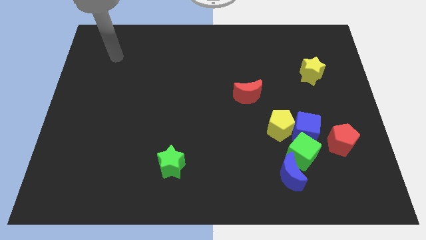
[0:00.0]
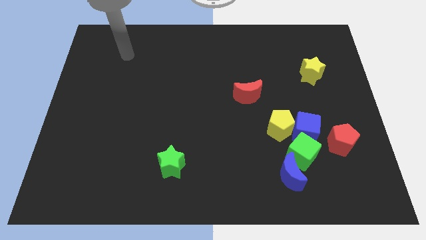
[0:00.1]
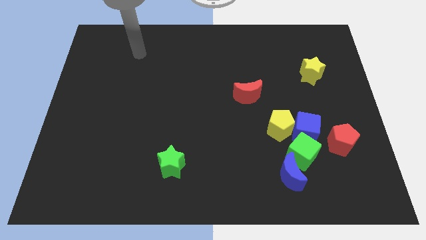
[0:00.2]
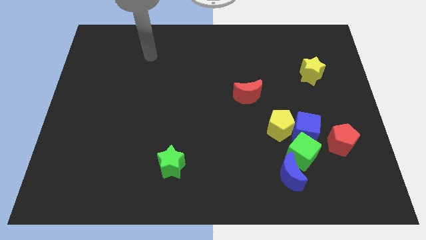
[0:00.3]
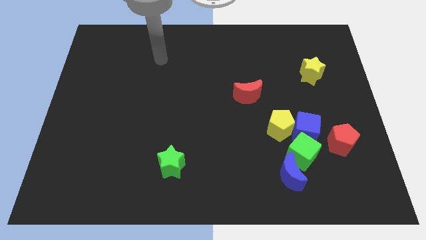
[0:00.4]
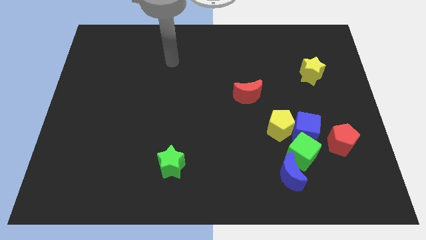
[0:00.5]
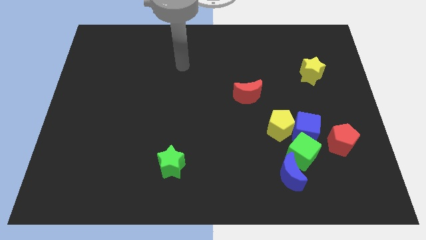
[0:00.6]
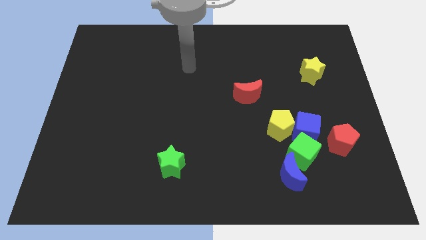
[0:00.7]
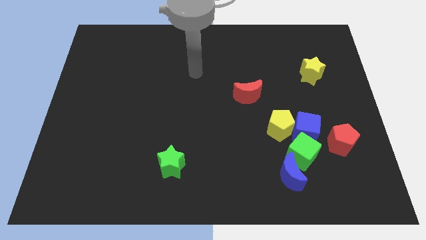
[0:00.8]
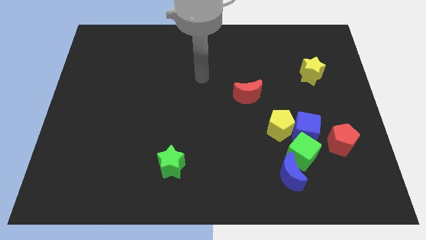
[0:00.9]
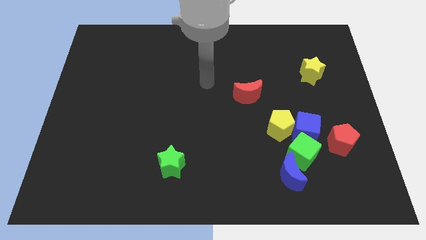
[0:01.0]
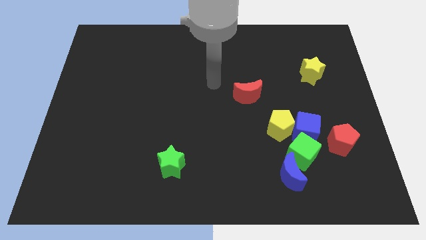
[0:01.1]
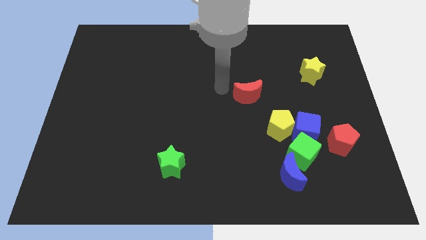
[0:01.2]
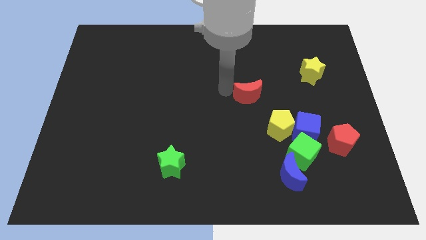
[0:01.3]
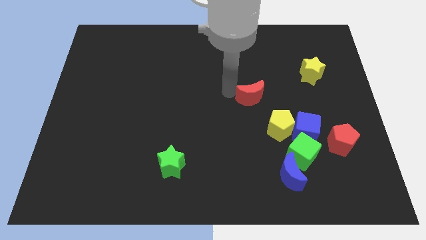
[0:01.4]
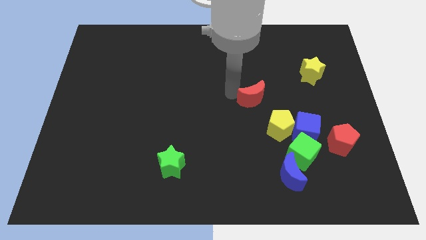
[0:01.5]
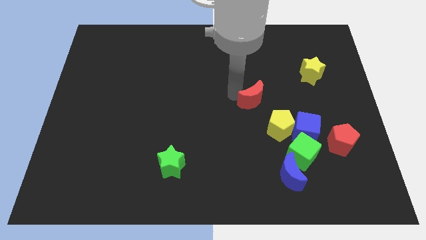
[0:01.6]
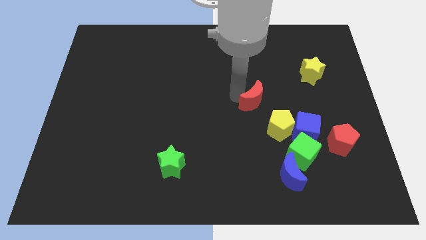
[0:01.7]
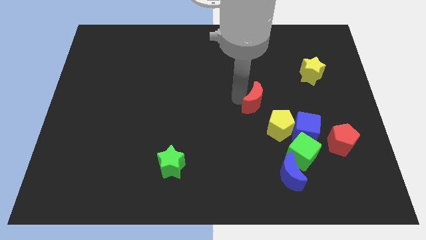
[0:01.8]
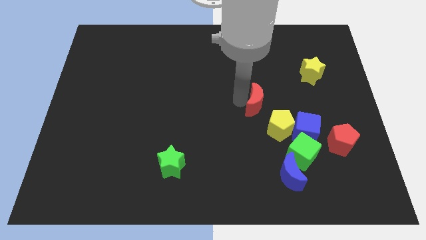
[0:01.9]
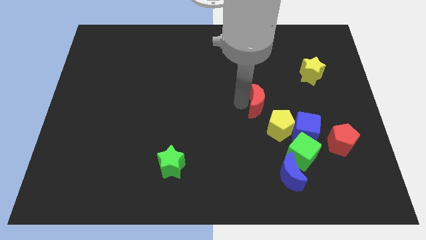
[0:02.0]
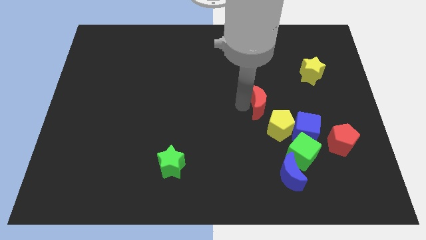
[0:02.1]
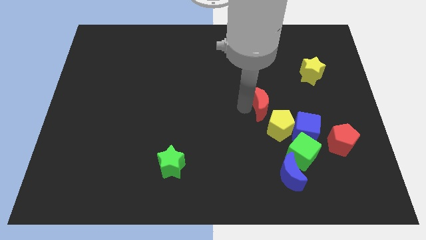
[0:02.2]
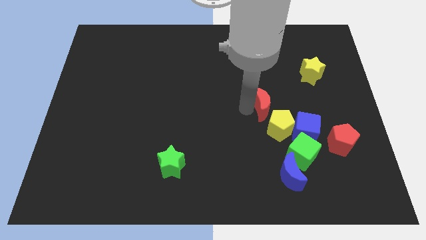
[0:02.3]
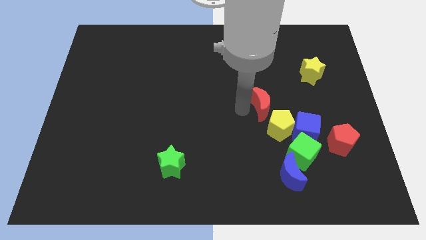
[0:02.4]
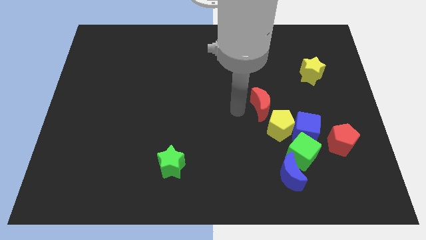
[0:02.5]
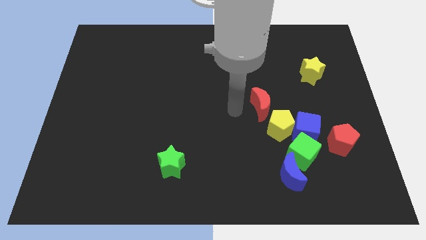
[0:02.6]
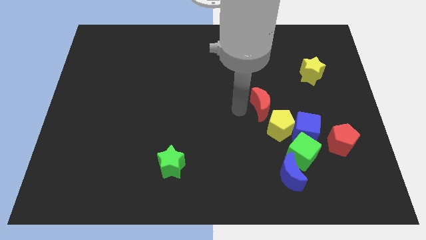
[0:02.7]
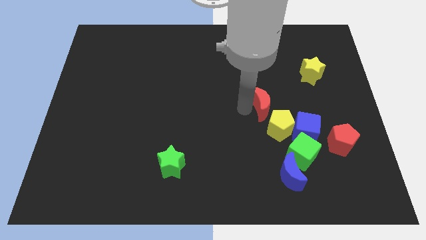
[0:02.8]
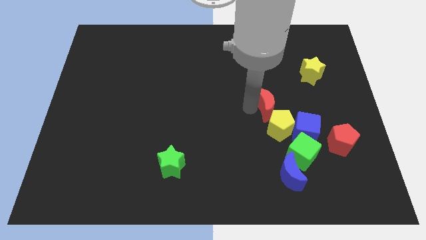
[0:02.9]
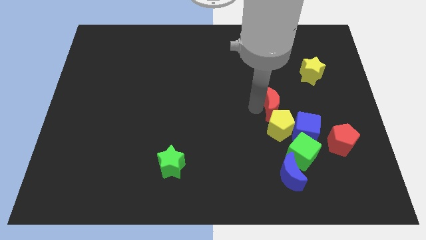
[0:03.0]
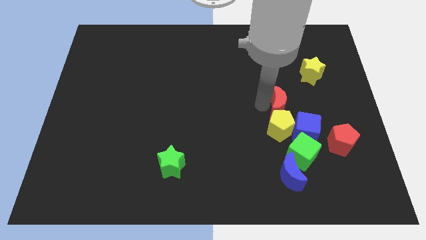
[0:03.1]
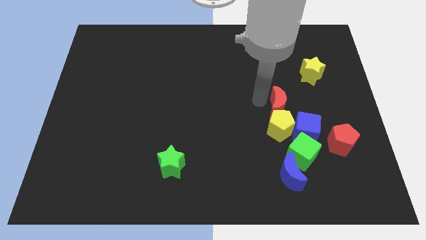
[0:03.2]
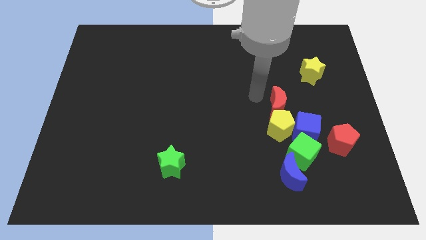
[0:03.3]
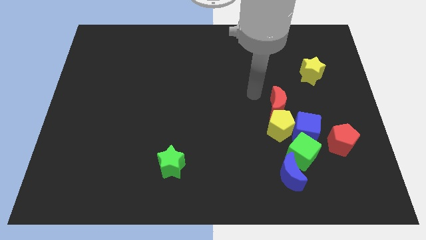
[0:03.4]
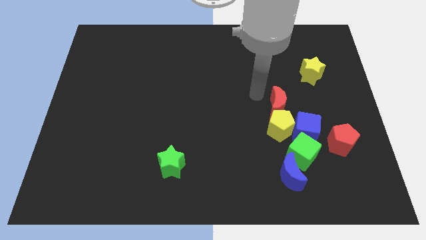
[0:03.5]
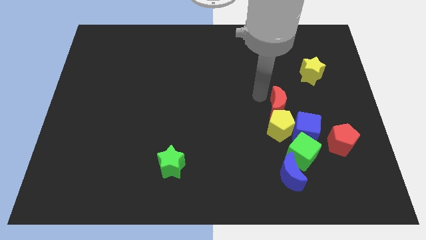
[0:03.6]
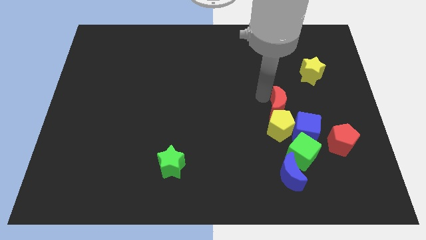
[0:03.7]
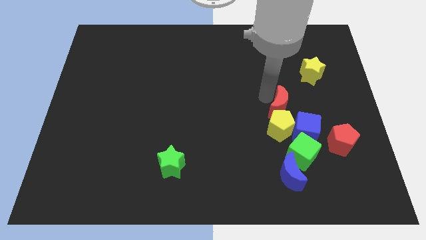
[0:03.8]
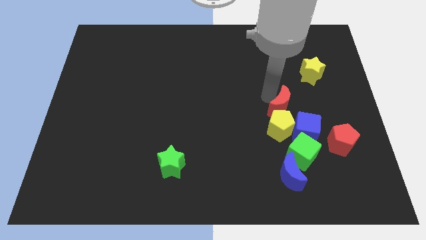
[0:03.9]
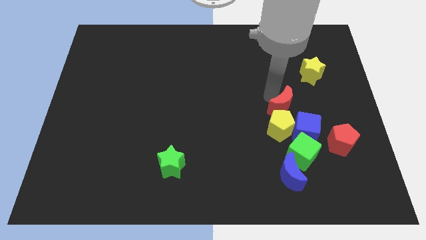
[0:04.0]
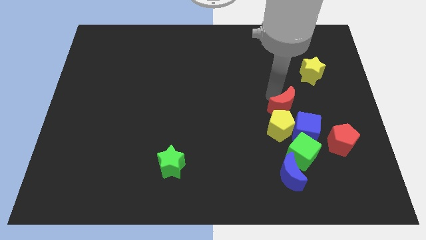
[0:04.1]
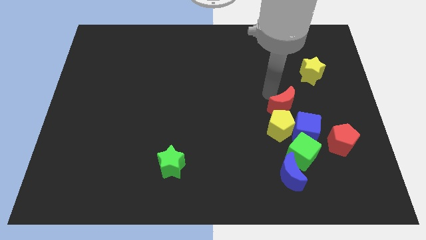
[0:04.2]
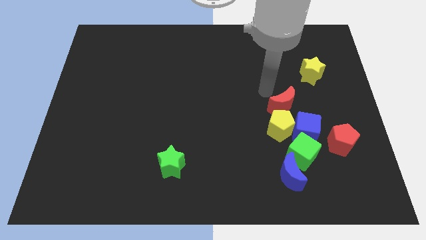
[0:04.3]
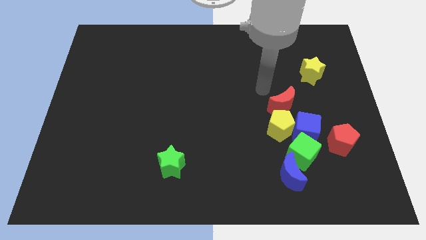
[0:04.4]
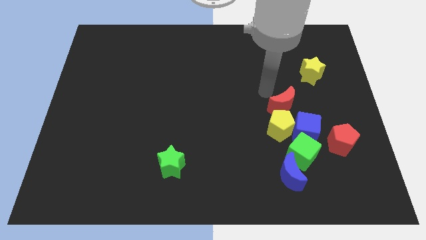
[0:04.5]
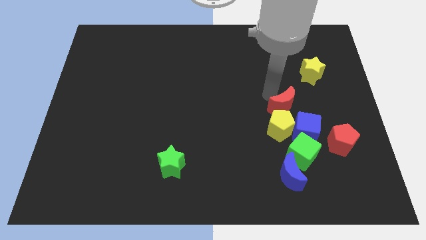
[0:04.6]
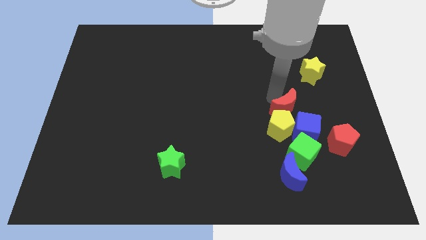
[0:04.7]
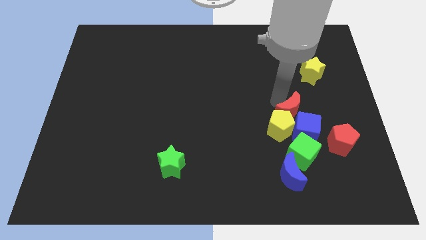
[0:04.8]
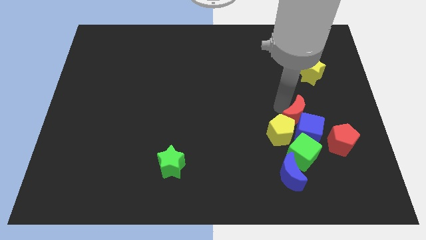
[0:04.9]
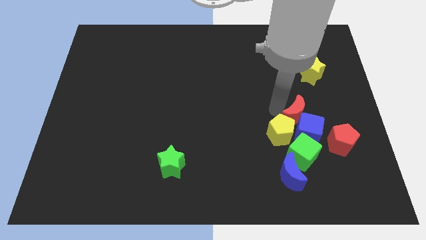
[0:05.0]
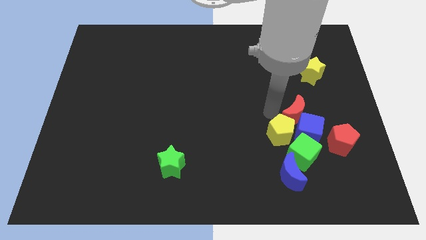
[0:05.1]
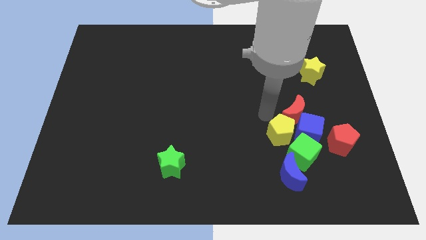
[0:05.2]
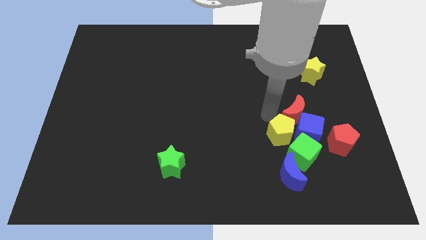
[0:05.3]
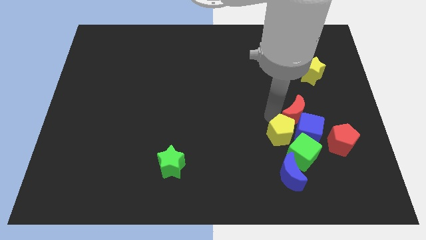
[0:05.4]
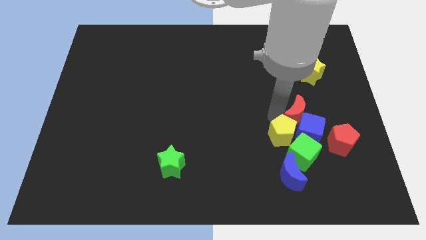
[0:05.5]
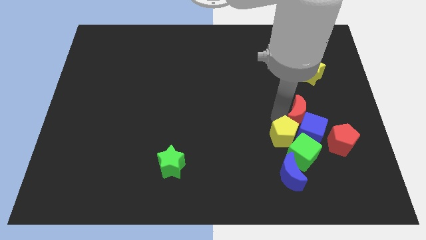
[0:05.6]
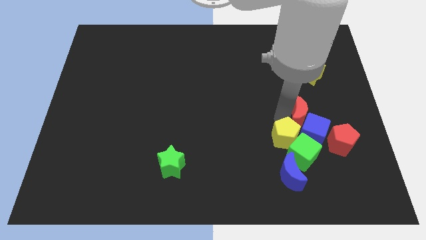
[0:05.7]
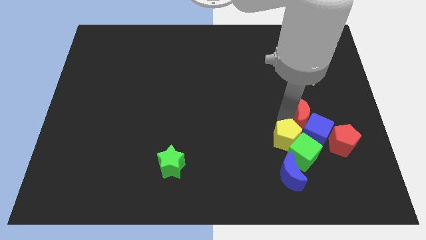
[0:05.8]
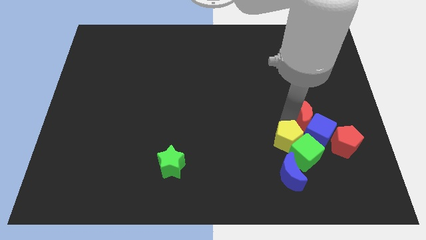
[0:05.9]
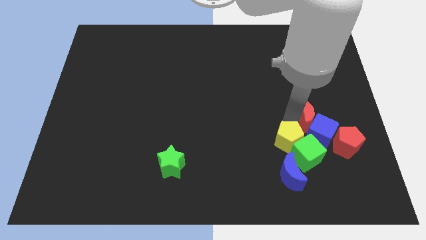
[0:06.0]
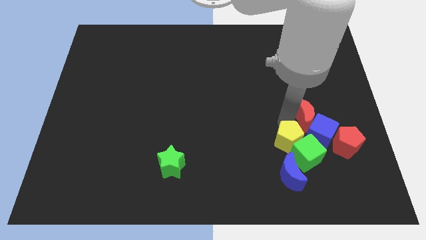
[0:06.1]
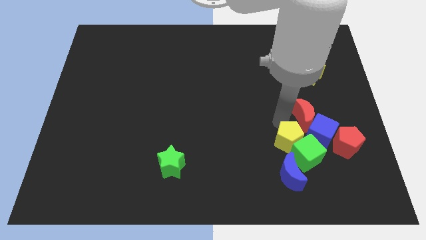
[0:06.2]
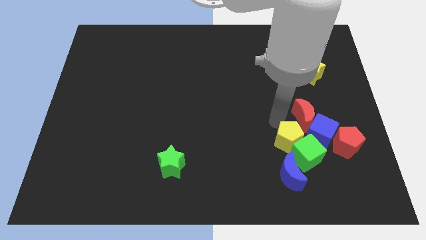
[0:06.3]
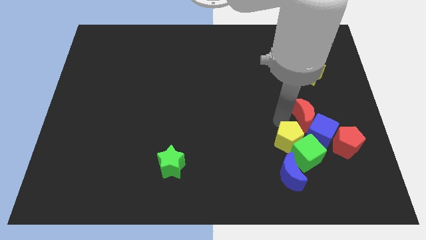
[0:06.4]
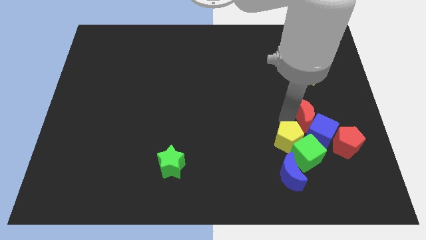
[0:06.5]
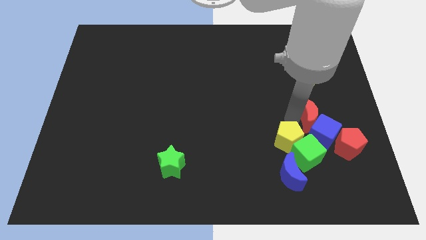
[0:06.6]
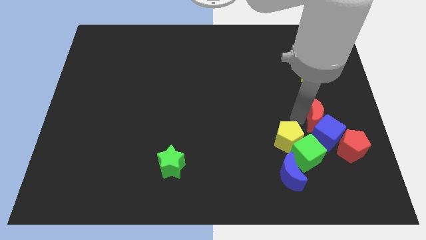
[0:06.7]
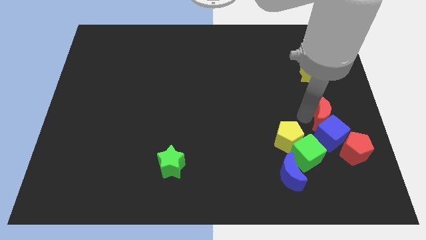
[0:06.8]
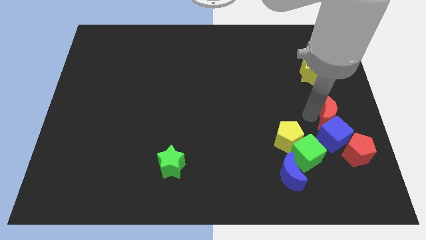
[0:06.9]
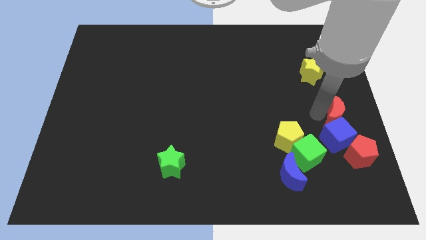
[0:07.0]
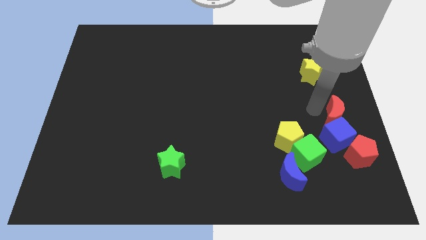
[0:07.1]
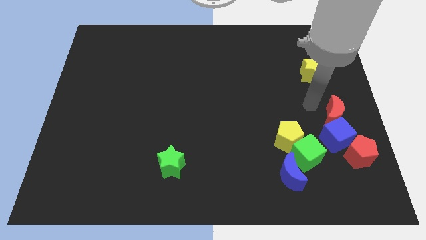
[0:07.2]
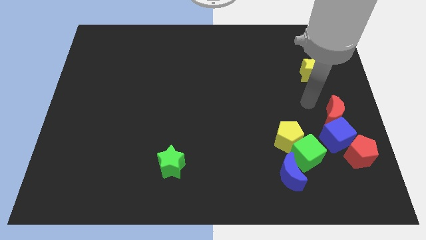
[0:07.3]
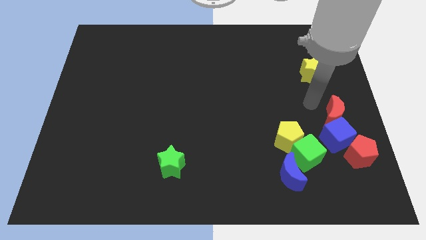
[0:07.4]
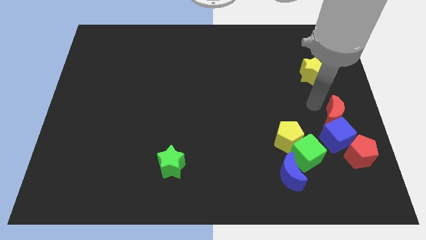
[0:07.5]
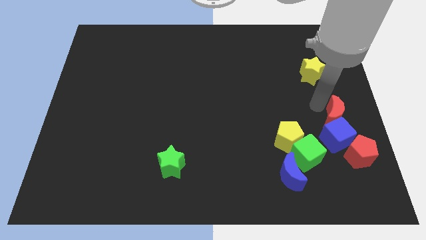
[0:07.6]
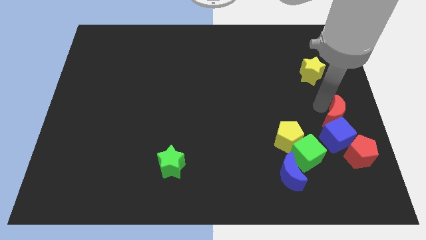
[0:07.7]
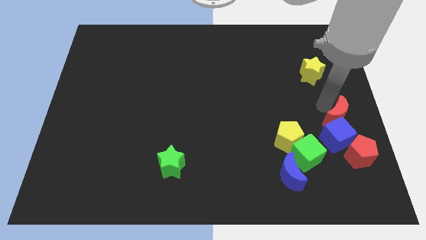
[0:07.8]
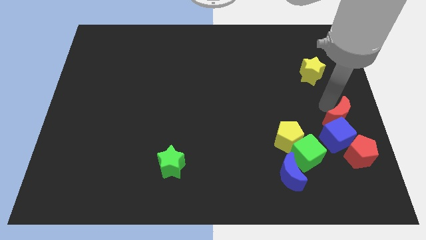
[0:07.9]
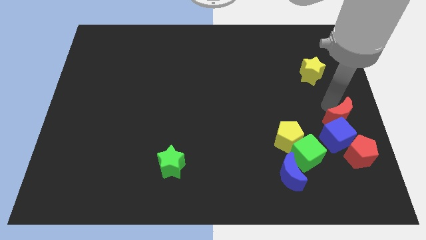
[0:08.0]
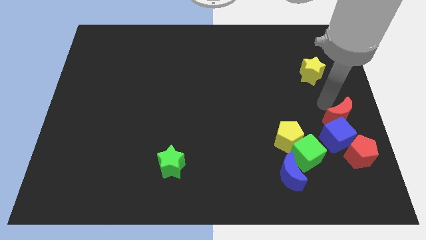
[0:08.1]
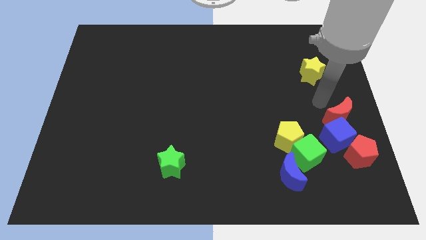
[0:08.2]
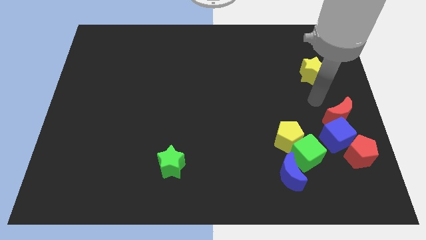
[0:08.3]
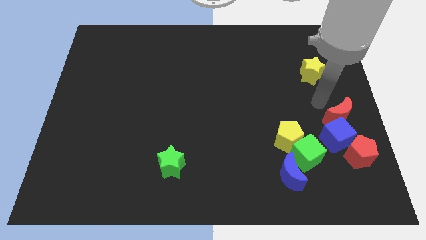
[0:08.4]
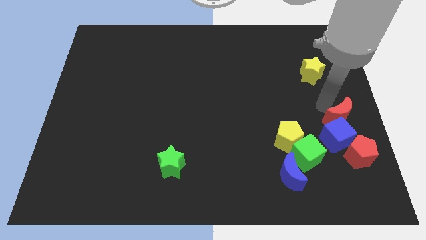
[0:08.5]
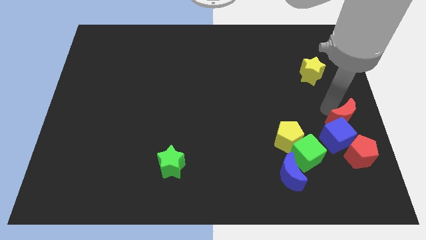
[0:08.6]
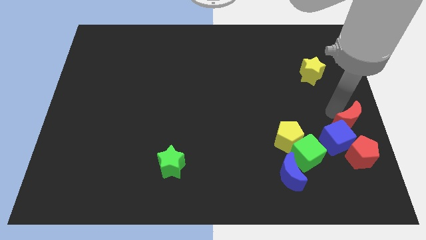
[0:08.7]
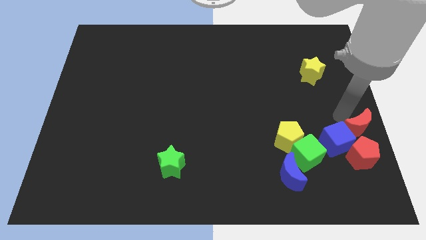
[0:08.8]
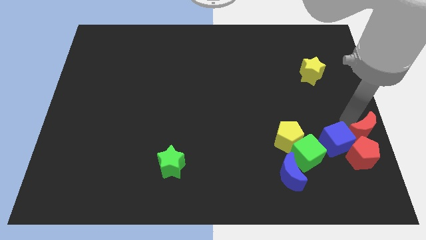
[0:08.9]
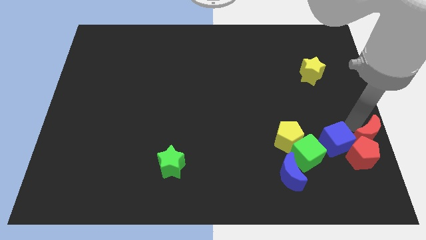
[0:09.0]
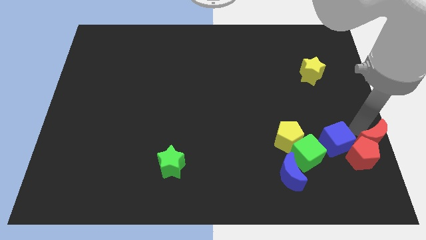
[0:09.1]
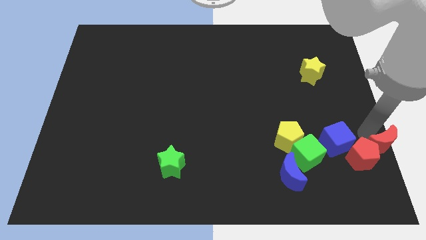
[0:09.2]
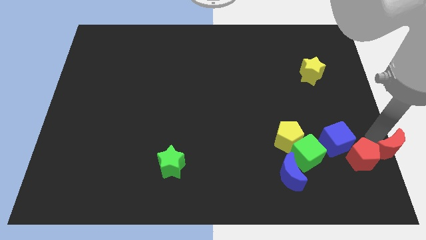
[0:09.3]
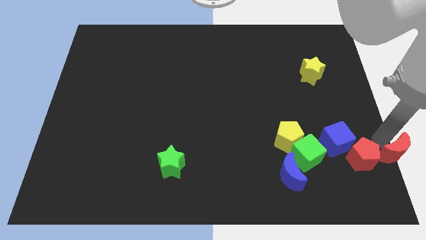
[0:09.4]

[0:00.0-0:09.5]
move the red moon to the bottom right of the board
